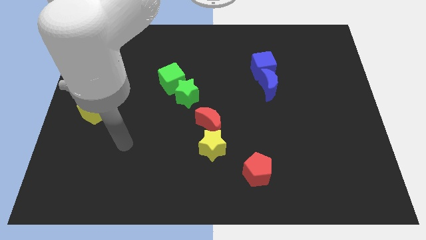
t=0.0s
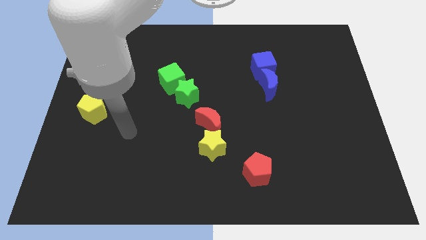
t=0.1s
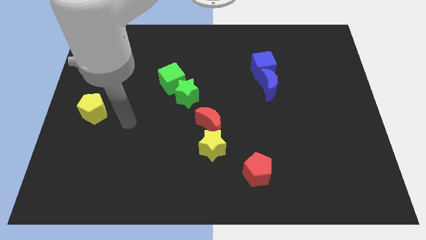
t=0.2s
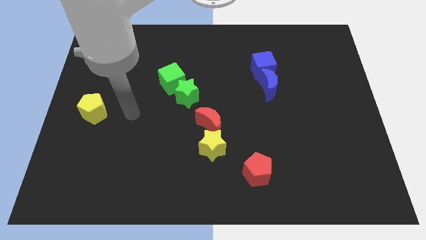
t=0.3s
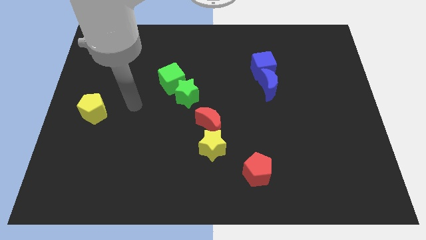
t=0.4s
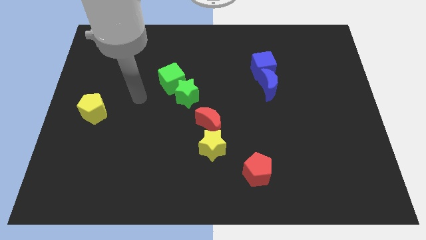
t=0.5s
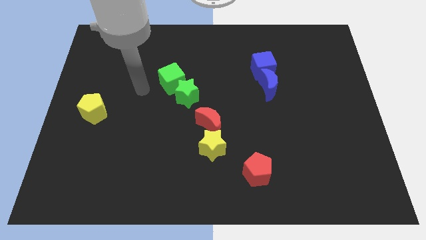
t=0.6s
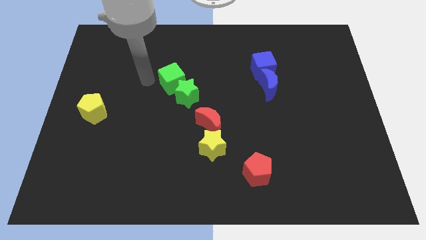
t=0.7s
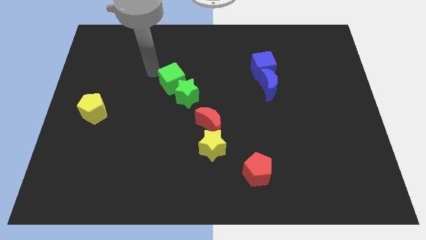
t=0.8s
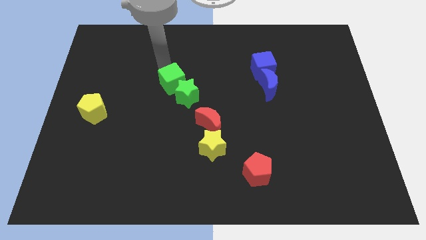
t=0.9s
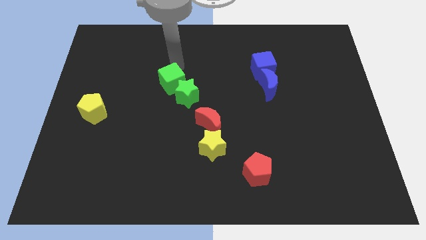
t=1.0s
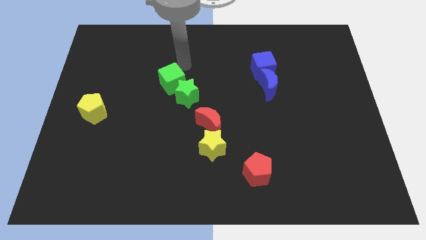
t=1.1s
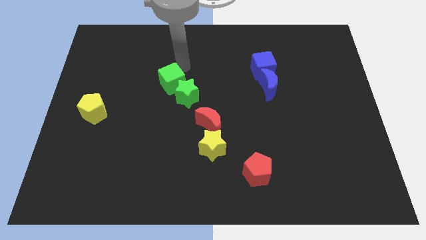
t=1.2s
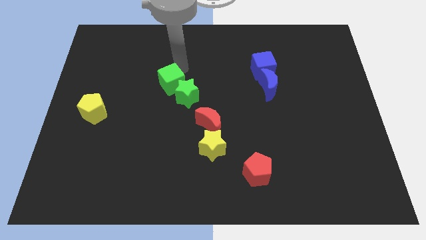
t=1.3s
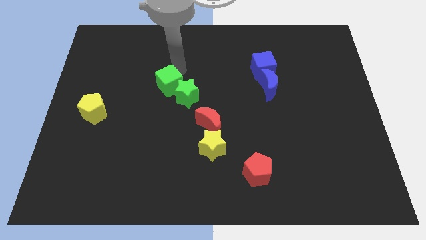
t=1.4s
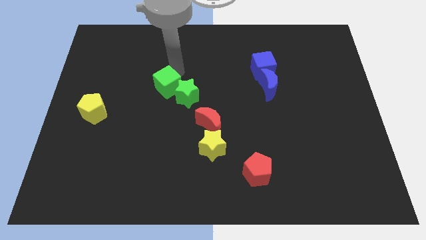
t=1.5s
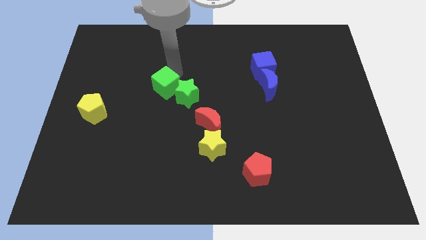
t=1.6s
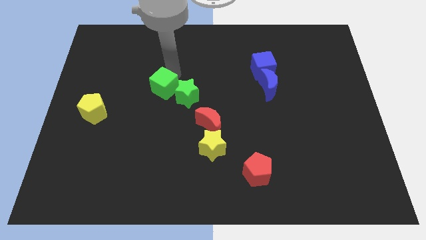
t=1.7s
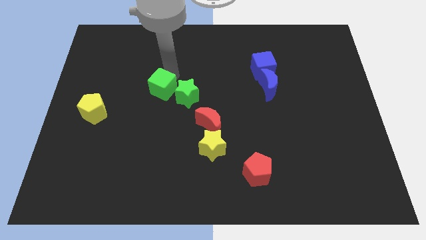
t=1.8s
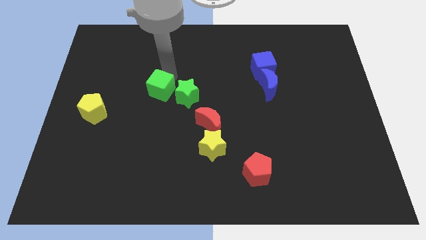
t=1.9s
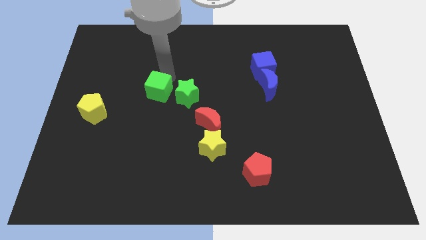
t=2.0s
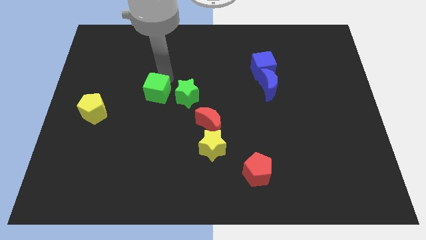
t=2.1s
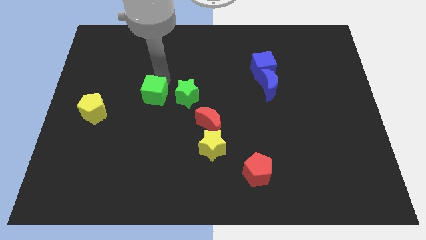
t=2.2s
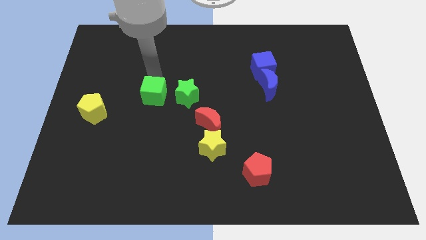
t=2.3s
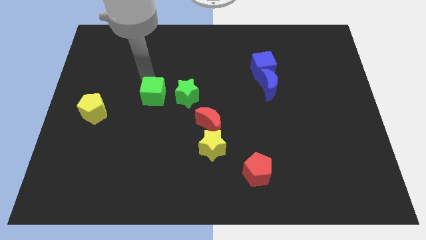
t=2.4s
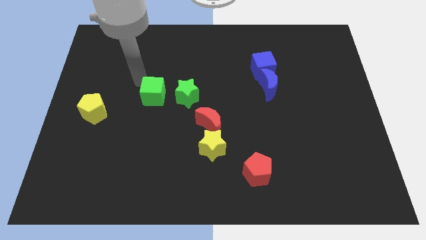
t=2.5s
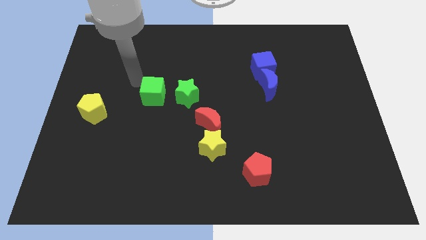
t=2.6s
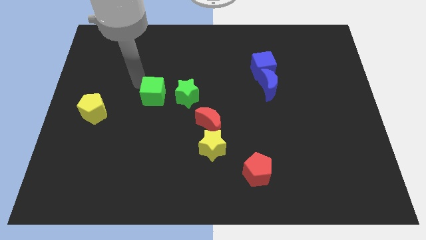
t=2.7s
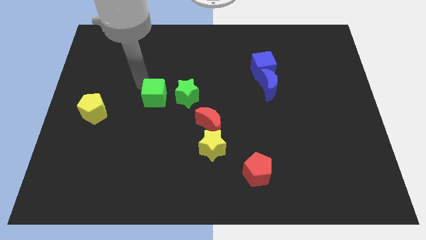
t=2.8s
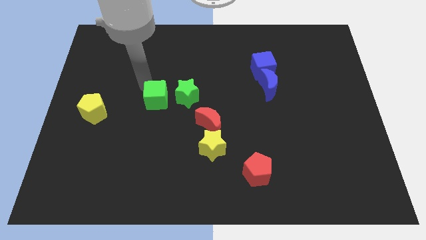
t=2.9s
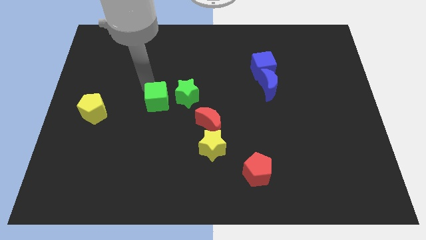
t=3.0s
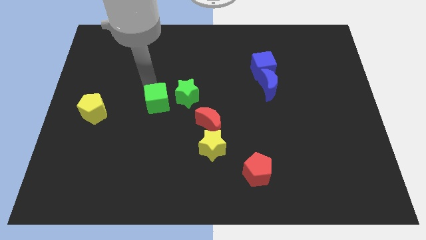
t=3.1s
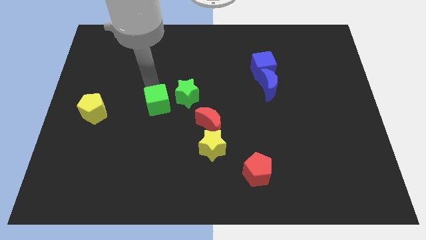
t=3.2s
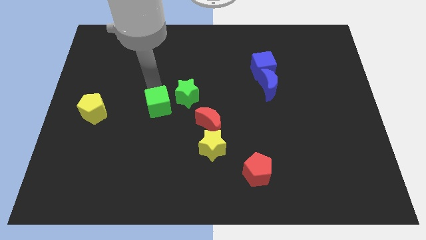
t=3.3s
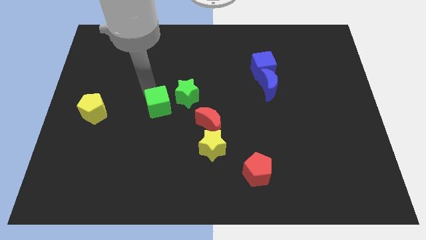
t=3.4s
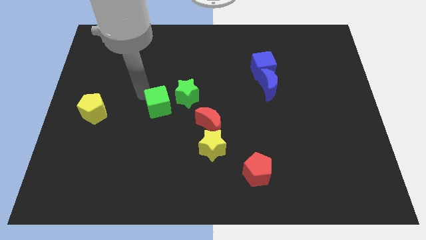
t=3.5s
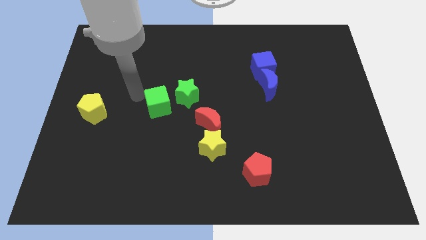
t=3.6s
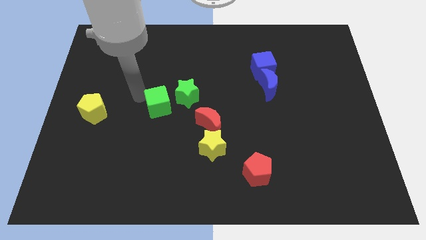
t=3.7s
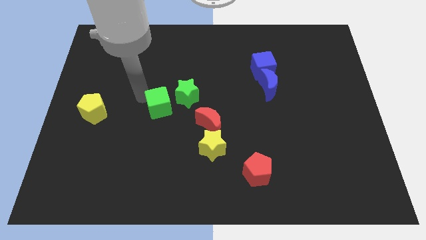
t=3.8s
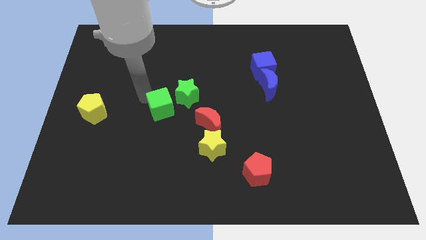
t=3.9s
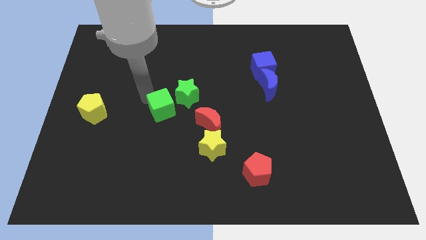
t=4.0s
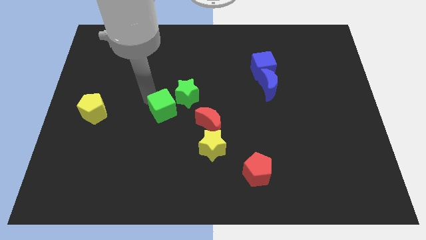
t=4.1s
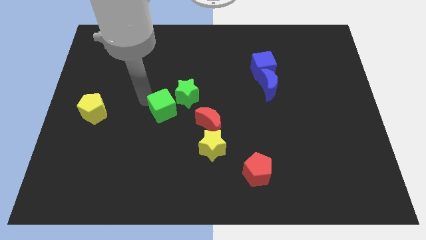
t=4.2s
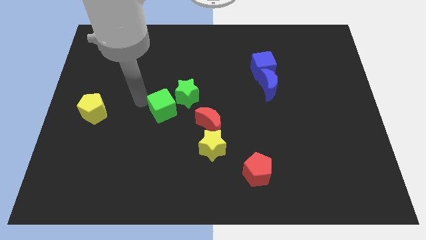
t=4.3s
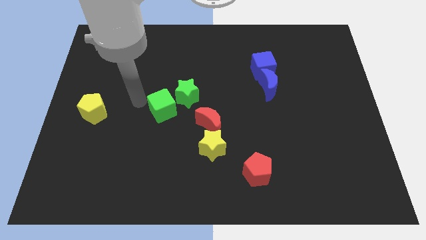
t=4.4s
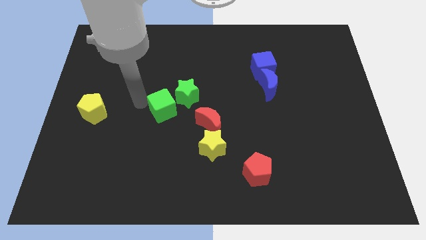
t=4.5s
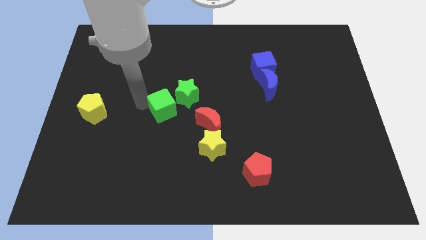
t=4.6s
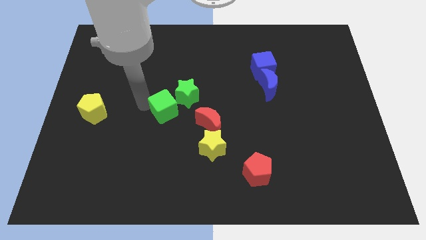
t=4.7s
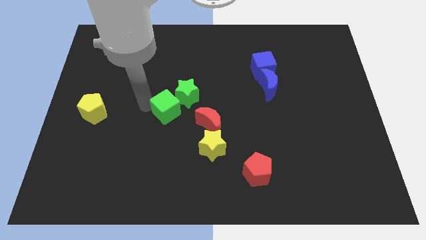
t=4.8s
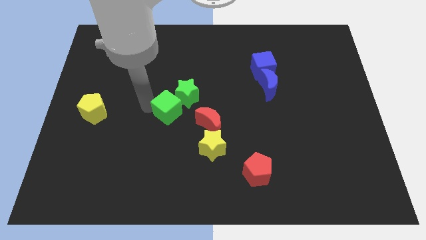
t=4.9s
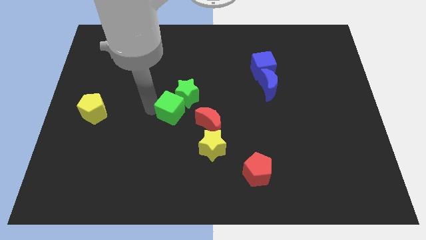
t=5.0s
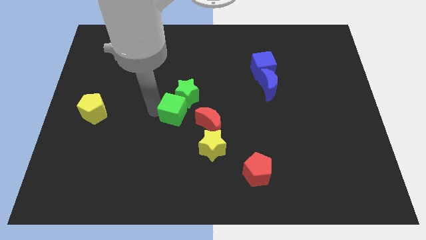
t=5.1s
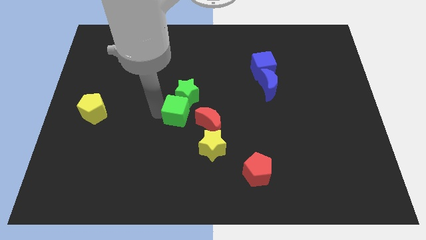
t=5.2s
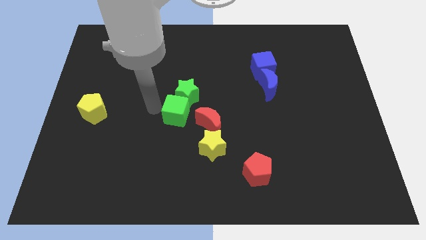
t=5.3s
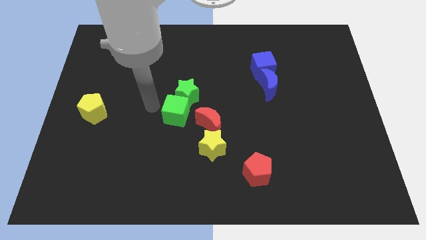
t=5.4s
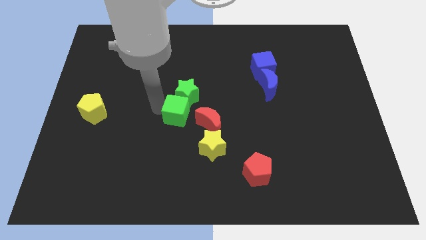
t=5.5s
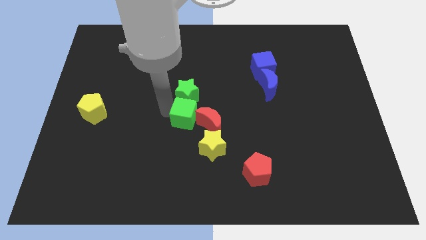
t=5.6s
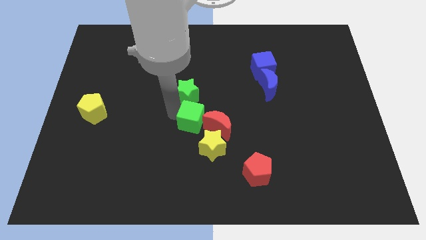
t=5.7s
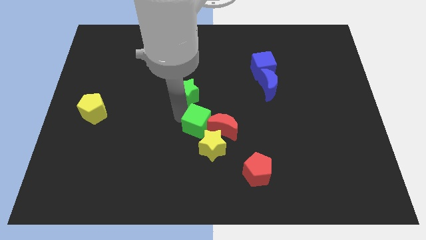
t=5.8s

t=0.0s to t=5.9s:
move the green cube towards the red moon

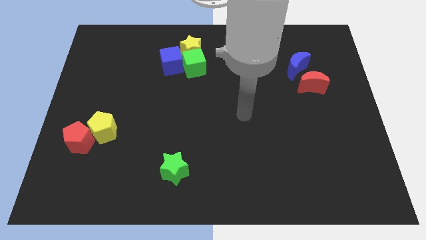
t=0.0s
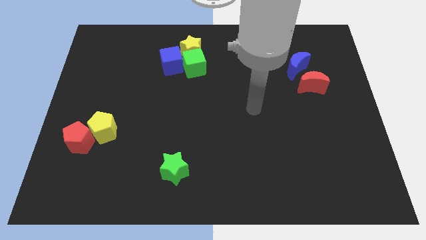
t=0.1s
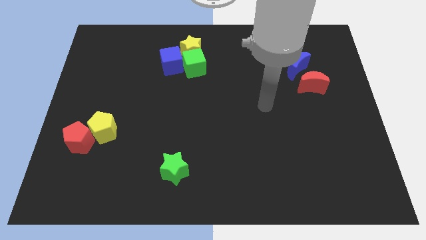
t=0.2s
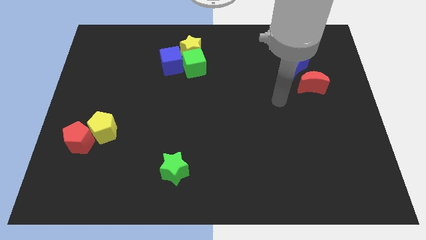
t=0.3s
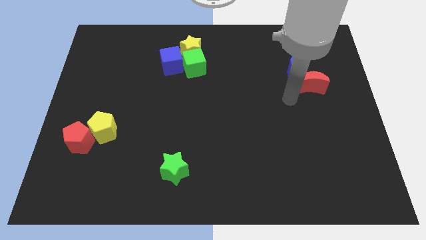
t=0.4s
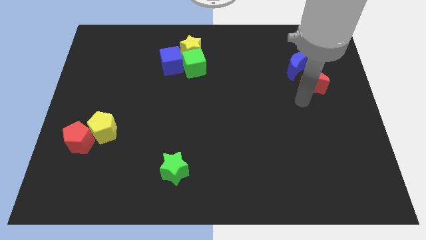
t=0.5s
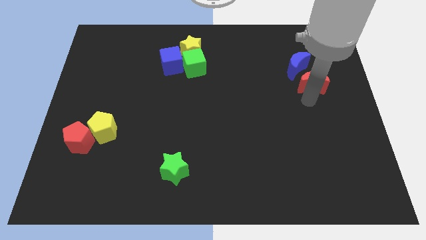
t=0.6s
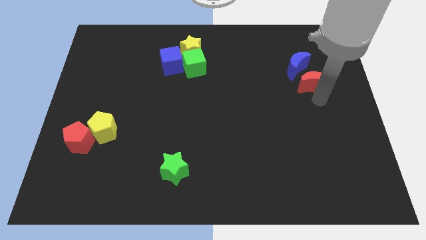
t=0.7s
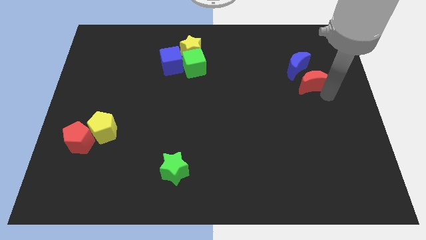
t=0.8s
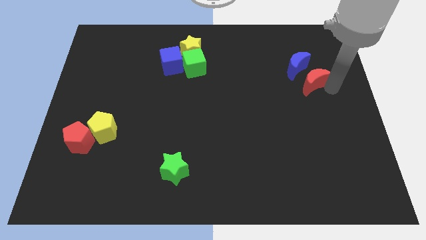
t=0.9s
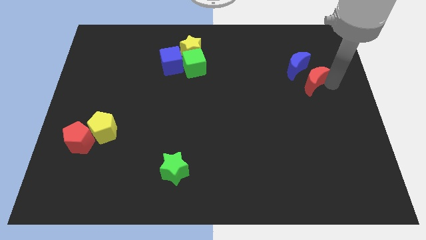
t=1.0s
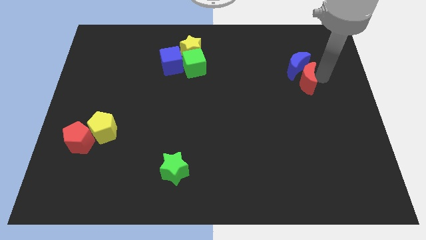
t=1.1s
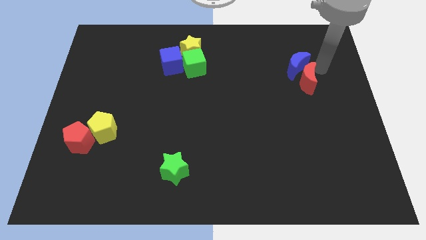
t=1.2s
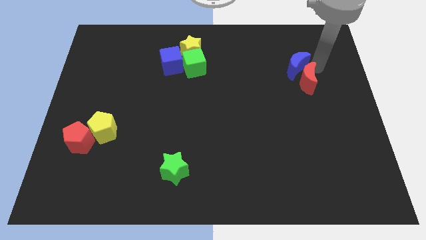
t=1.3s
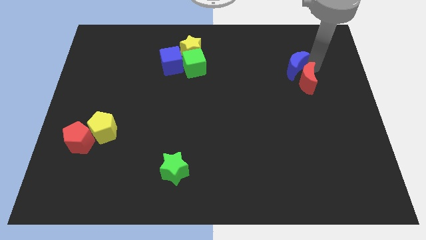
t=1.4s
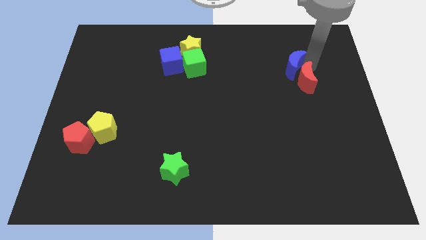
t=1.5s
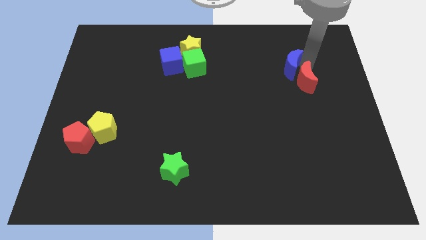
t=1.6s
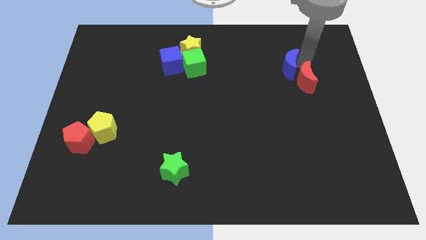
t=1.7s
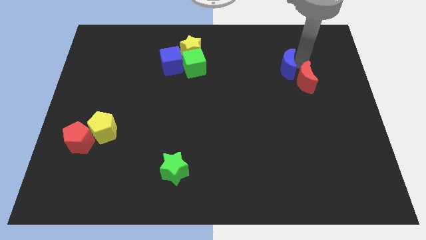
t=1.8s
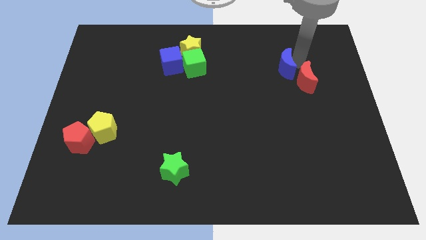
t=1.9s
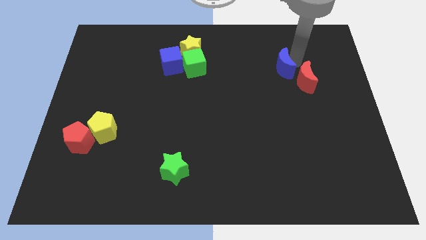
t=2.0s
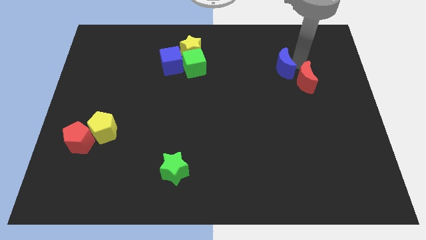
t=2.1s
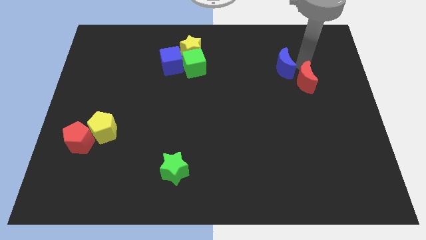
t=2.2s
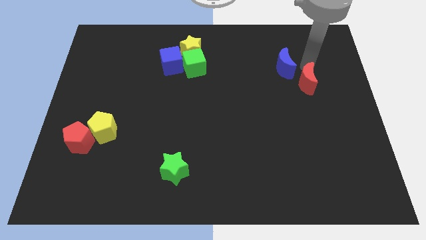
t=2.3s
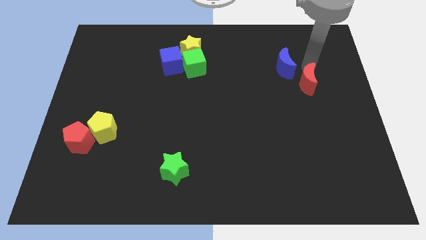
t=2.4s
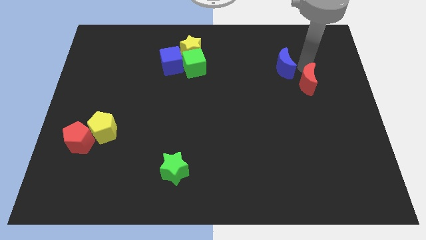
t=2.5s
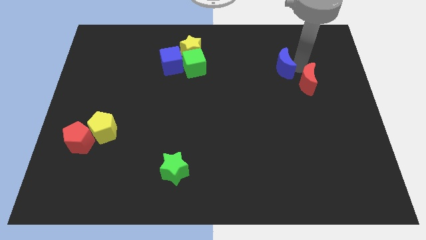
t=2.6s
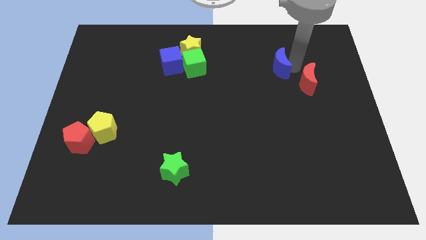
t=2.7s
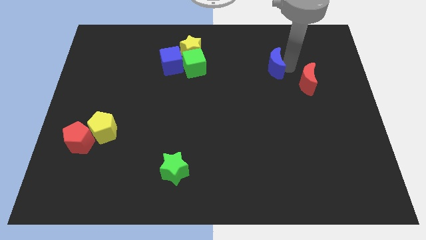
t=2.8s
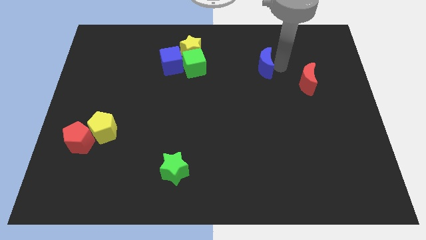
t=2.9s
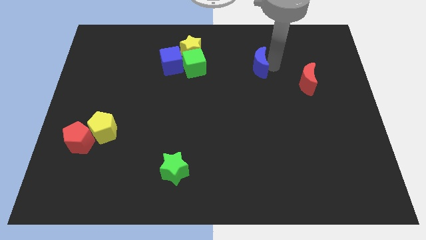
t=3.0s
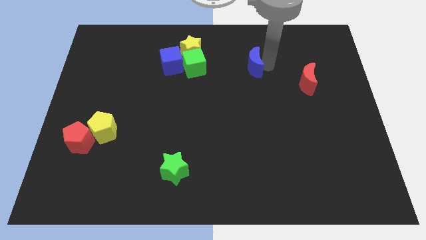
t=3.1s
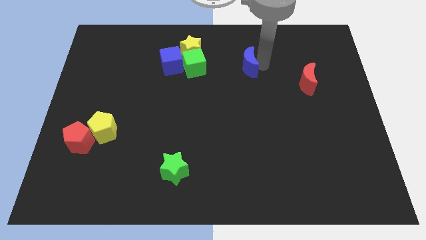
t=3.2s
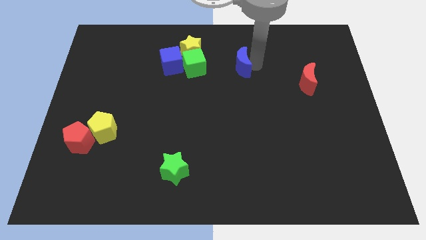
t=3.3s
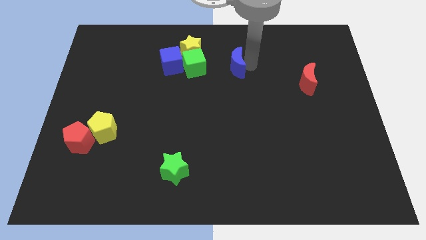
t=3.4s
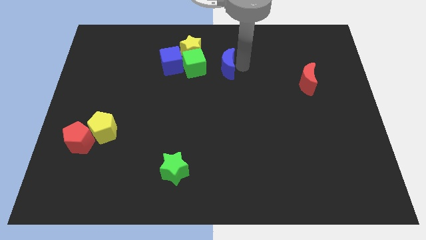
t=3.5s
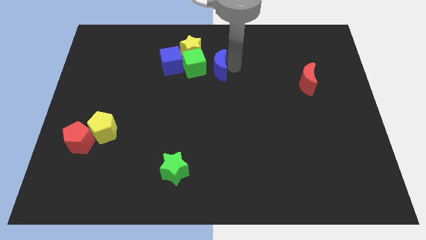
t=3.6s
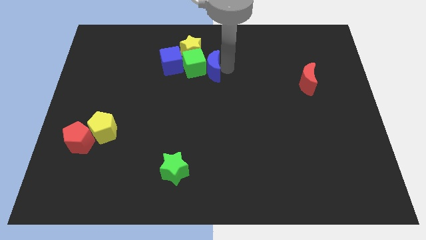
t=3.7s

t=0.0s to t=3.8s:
move the blue moon to the green cube
